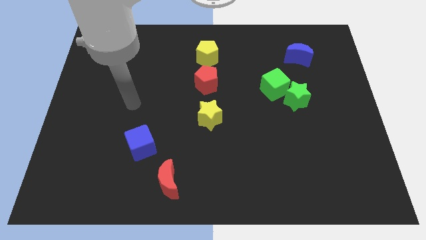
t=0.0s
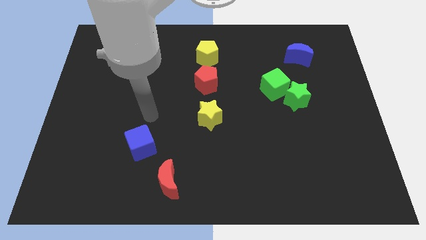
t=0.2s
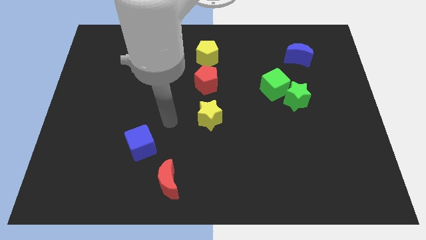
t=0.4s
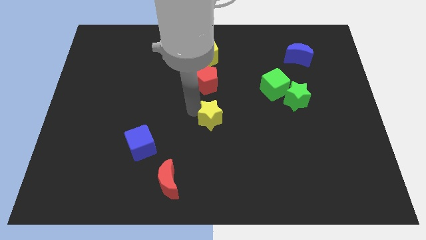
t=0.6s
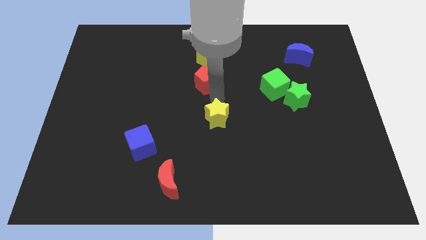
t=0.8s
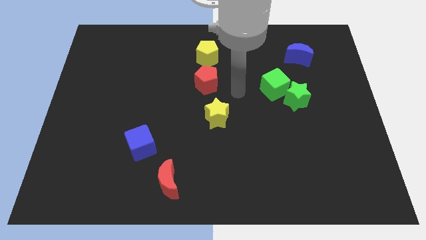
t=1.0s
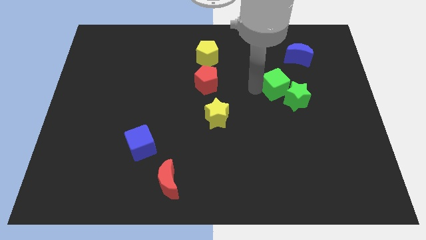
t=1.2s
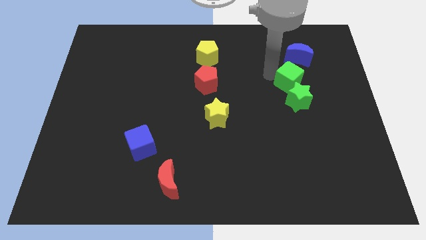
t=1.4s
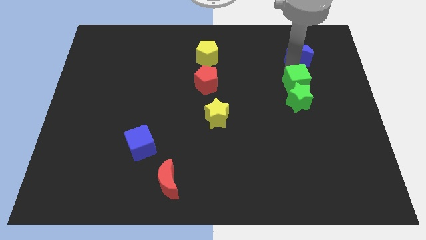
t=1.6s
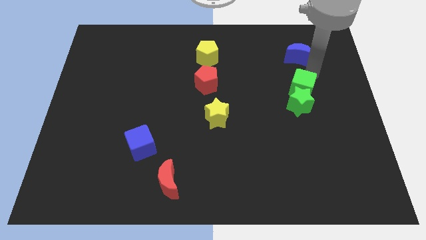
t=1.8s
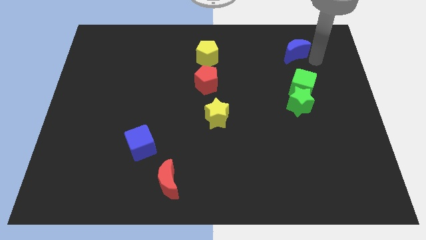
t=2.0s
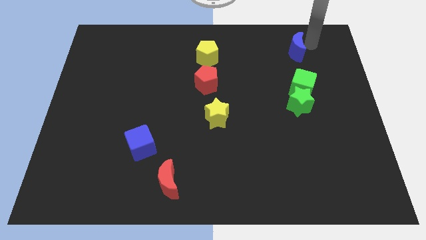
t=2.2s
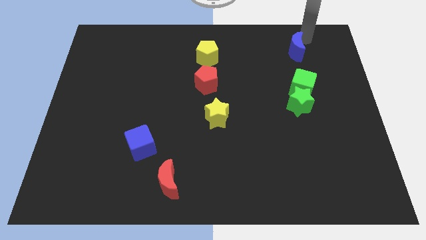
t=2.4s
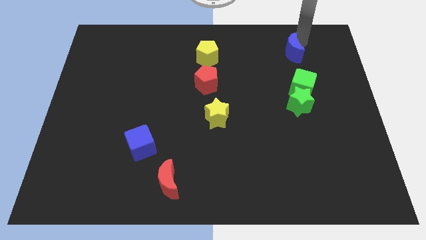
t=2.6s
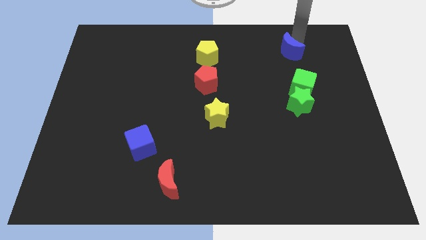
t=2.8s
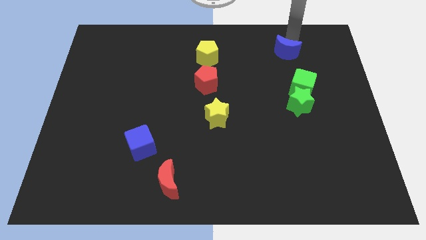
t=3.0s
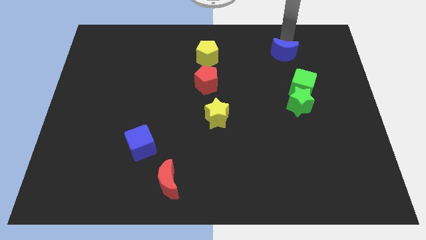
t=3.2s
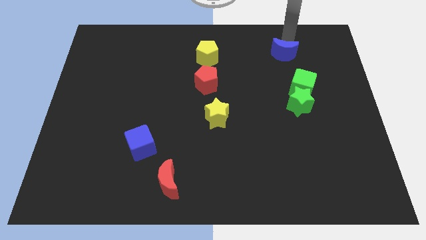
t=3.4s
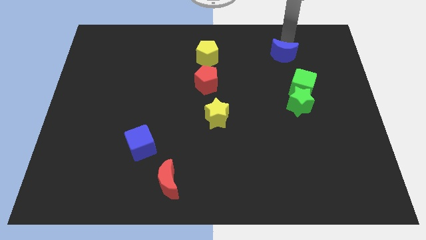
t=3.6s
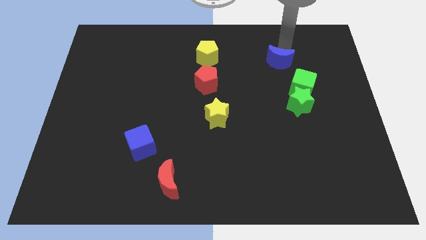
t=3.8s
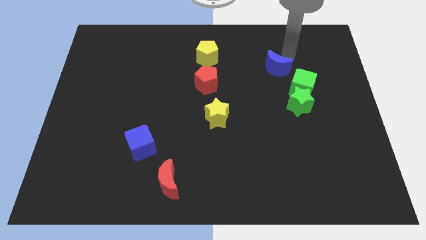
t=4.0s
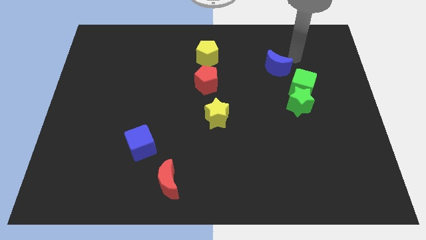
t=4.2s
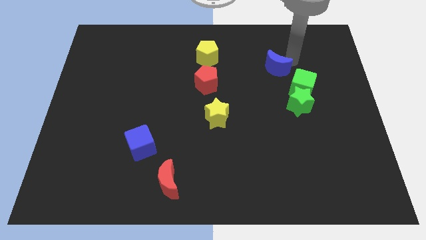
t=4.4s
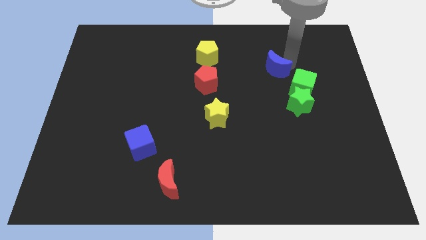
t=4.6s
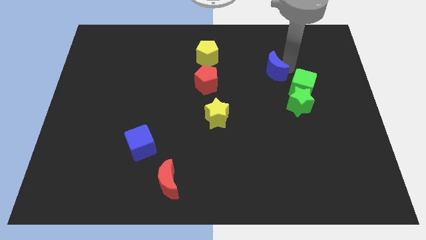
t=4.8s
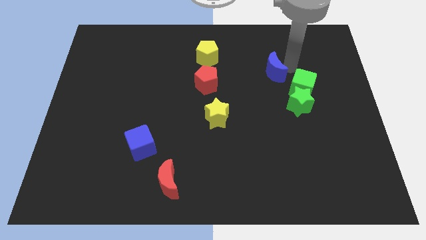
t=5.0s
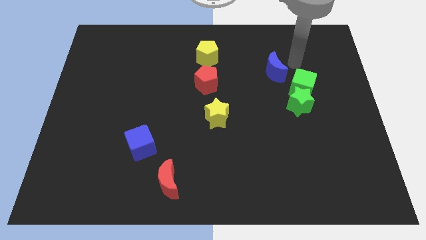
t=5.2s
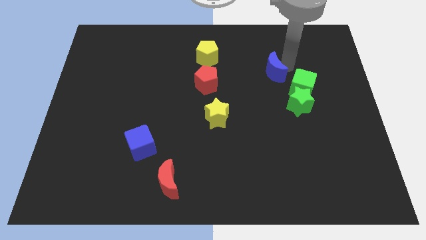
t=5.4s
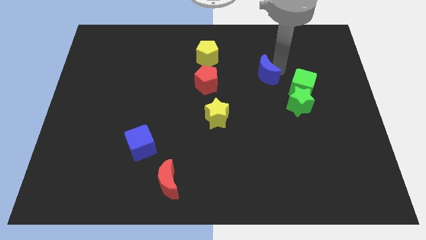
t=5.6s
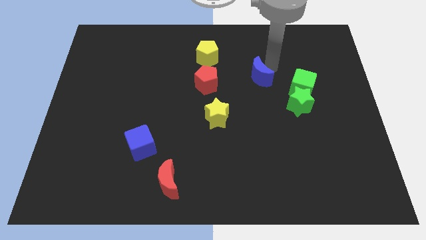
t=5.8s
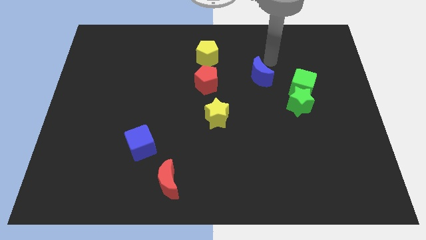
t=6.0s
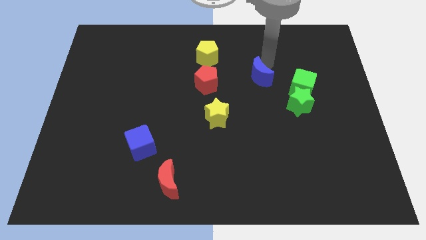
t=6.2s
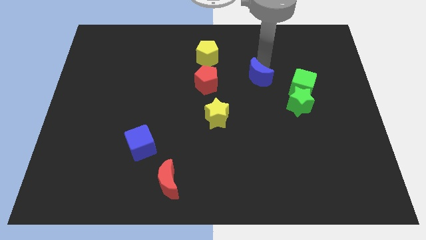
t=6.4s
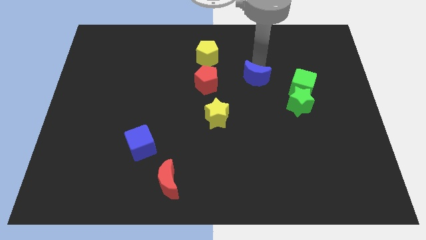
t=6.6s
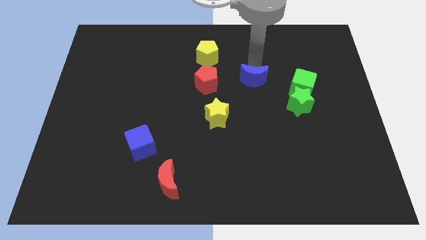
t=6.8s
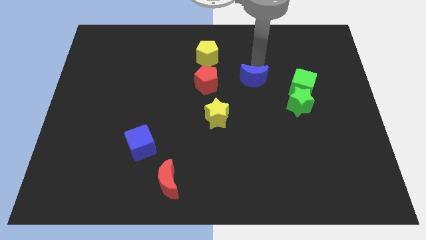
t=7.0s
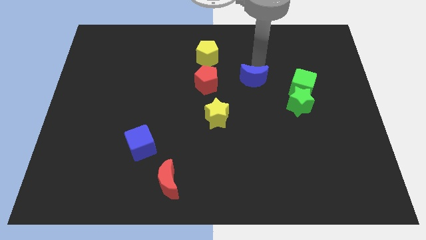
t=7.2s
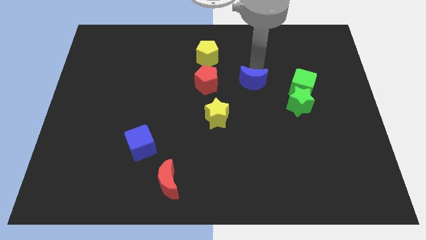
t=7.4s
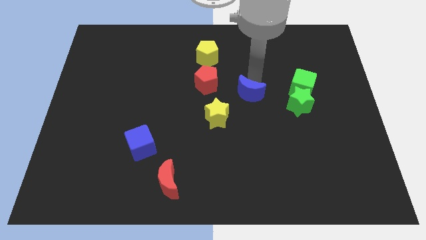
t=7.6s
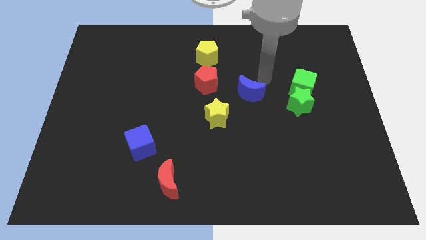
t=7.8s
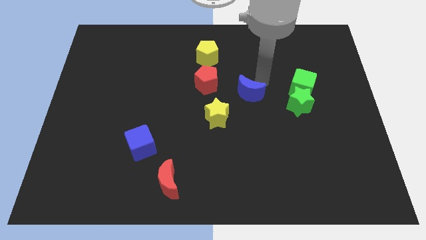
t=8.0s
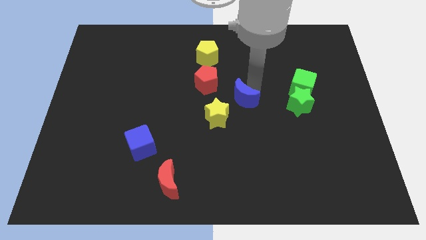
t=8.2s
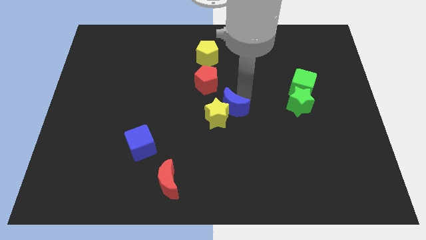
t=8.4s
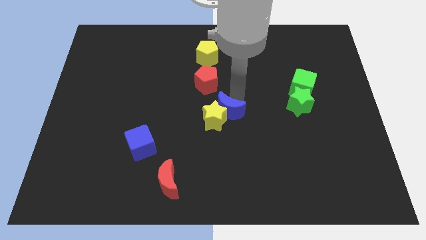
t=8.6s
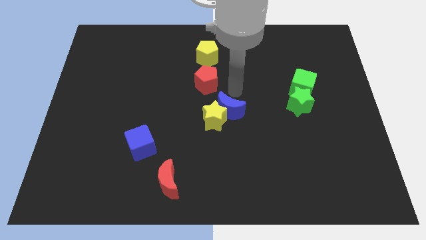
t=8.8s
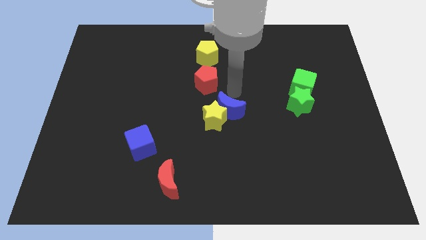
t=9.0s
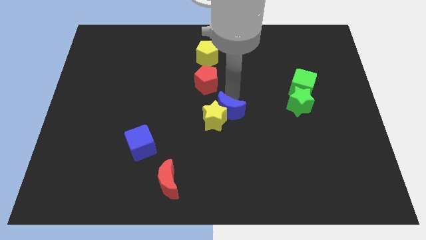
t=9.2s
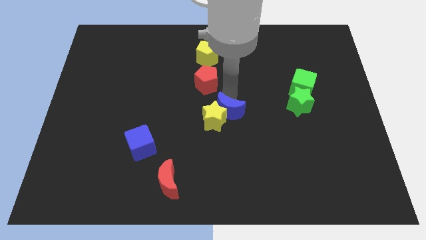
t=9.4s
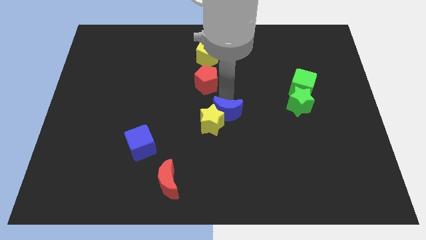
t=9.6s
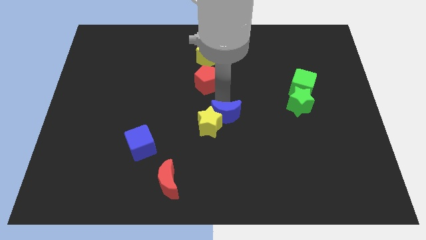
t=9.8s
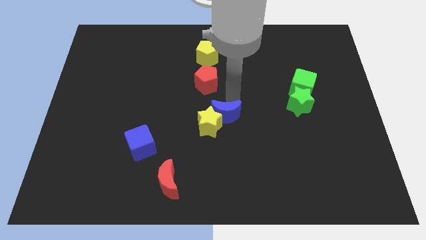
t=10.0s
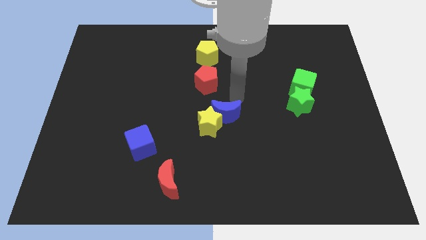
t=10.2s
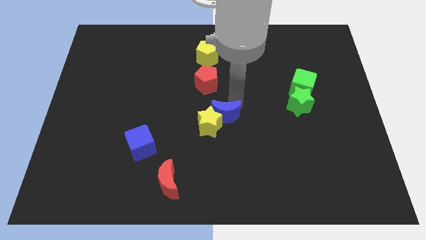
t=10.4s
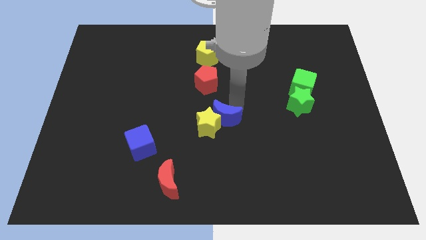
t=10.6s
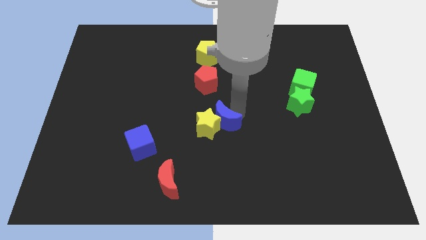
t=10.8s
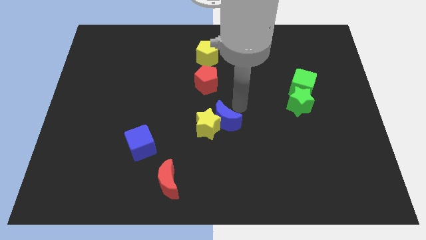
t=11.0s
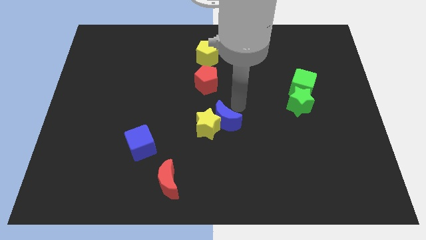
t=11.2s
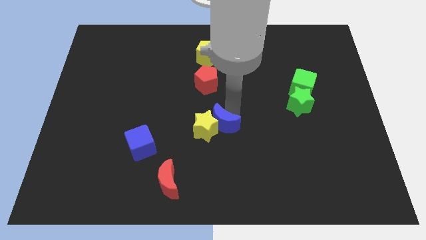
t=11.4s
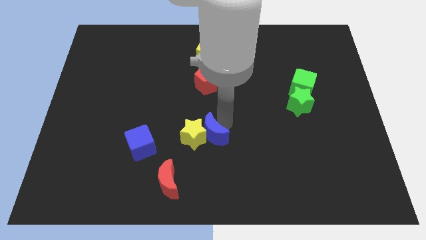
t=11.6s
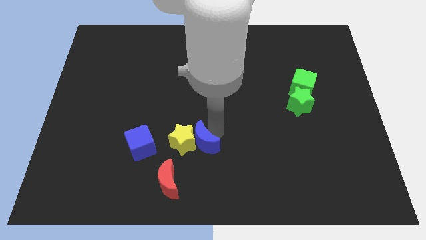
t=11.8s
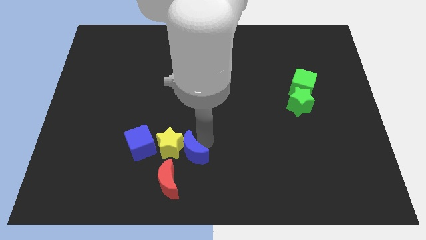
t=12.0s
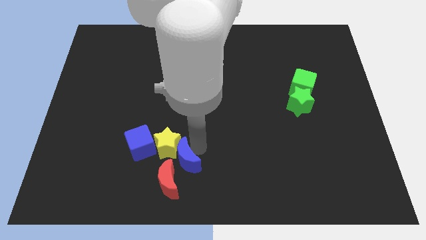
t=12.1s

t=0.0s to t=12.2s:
move the blue moon towards the red moon

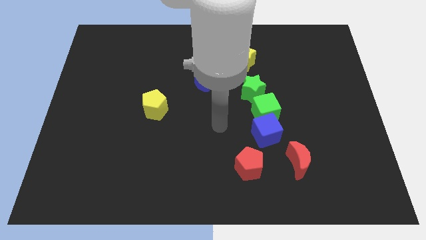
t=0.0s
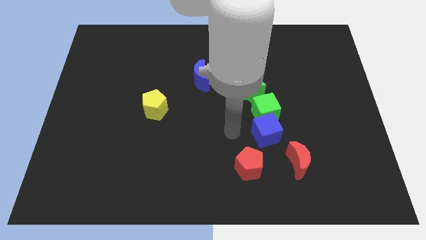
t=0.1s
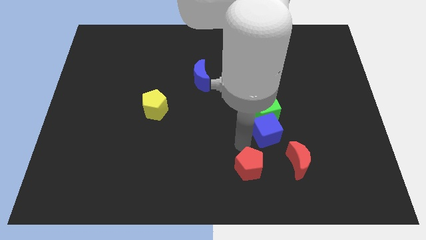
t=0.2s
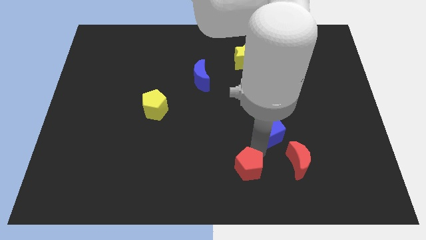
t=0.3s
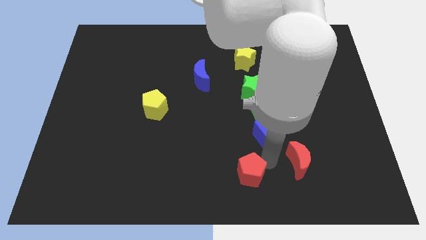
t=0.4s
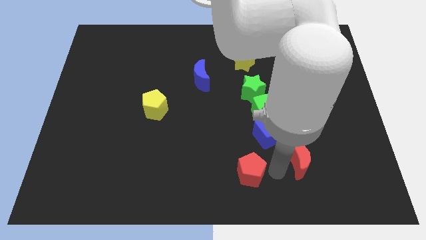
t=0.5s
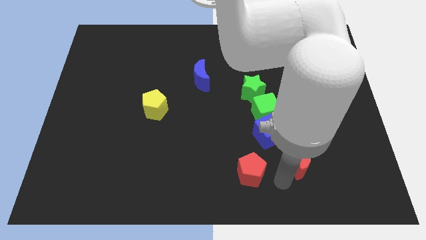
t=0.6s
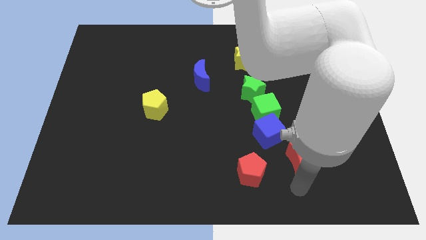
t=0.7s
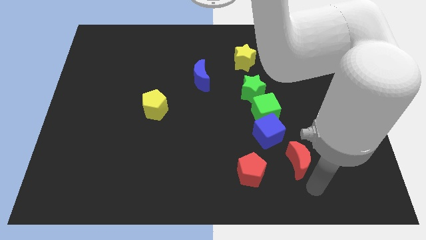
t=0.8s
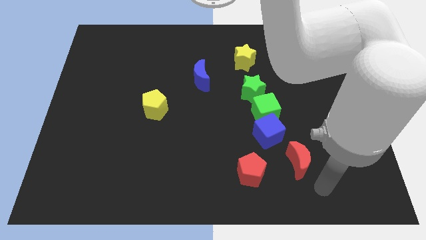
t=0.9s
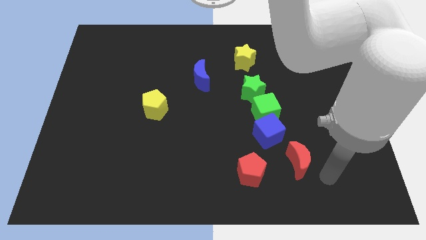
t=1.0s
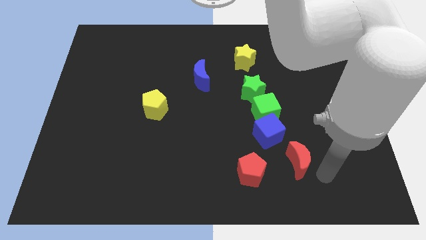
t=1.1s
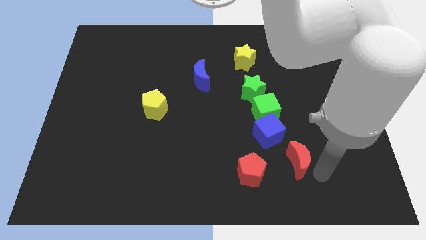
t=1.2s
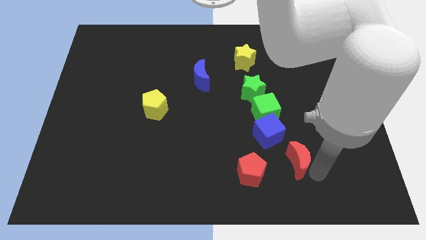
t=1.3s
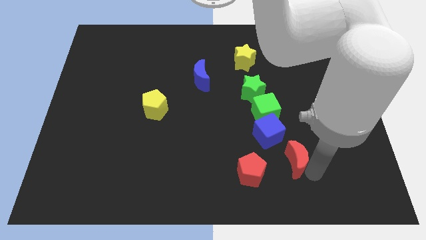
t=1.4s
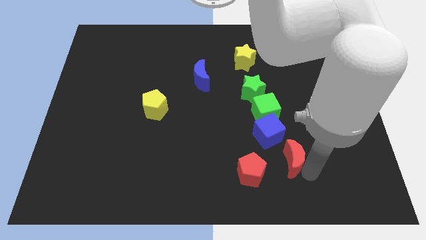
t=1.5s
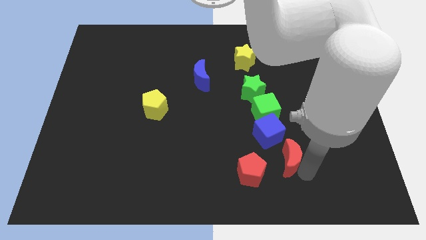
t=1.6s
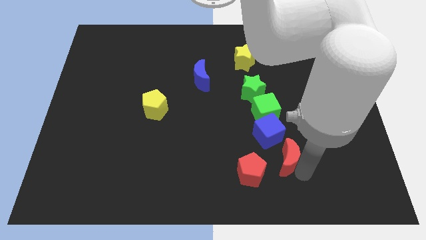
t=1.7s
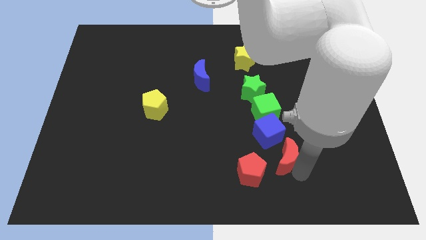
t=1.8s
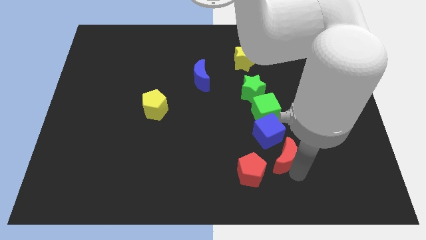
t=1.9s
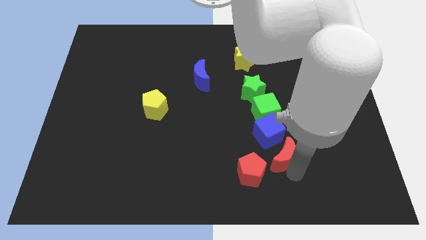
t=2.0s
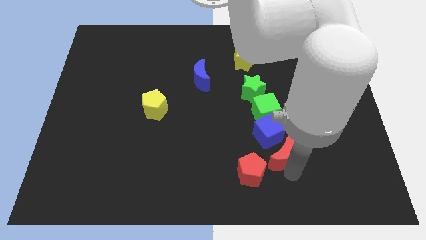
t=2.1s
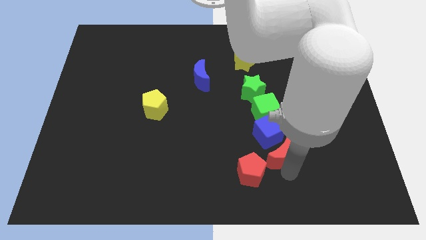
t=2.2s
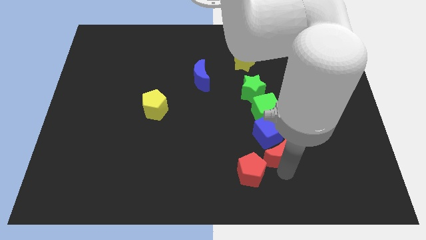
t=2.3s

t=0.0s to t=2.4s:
move the red moon towards the blue cube
